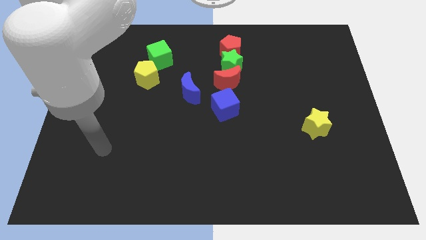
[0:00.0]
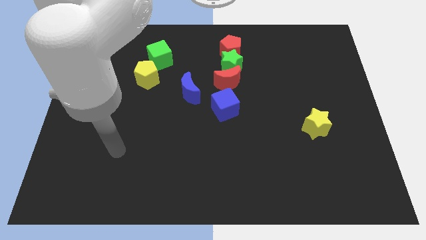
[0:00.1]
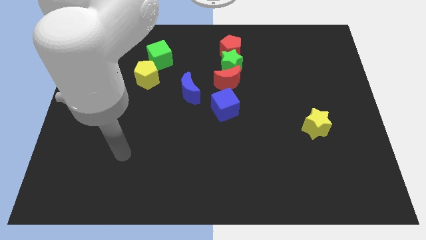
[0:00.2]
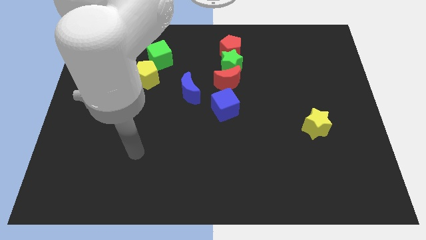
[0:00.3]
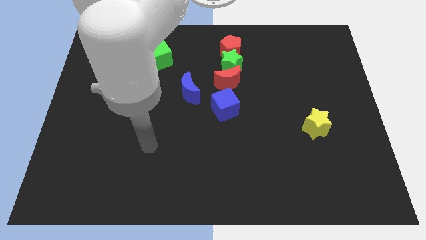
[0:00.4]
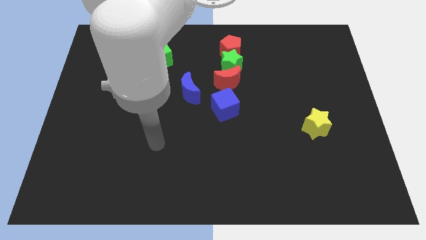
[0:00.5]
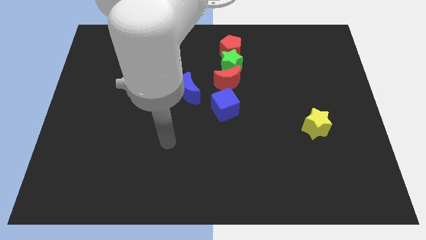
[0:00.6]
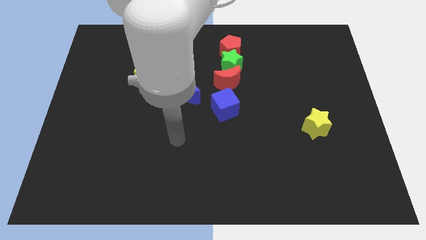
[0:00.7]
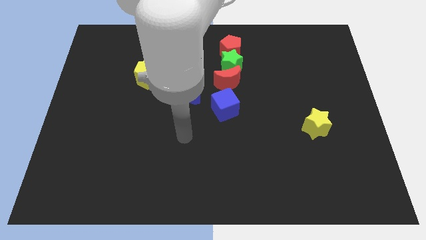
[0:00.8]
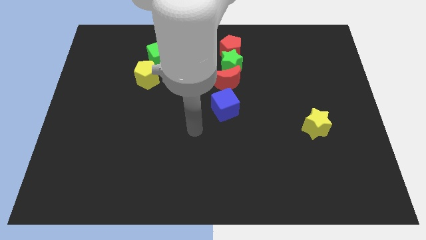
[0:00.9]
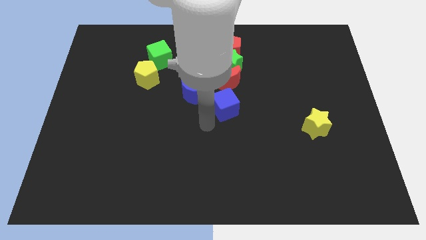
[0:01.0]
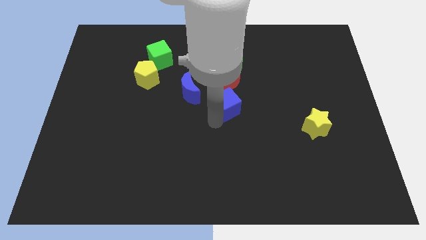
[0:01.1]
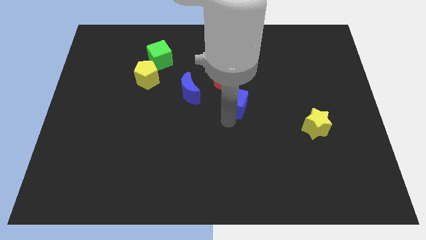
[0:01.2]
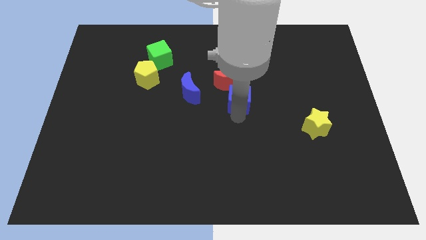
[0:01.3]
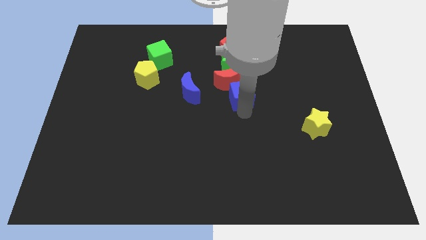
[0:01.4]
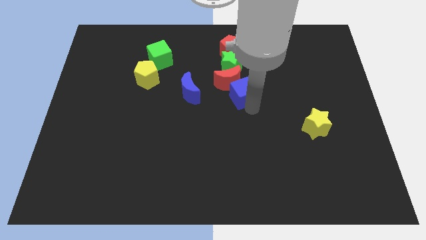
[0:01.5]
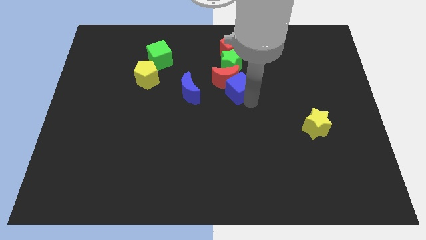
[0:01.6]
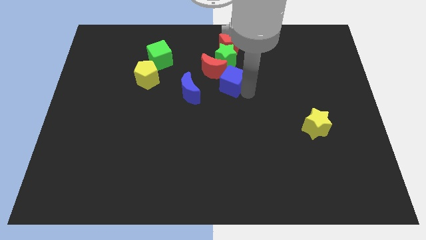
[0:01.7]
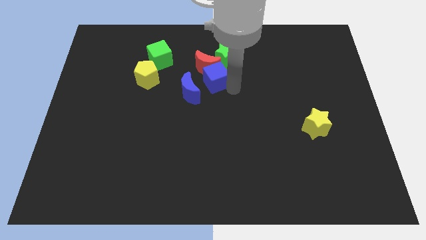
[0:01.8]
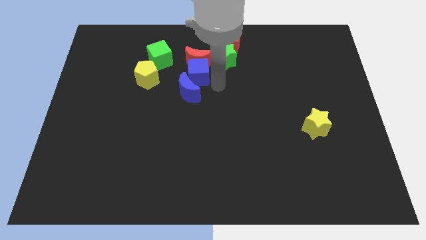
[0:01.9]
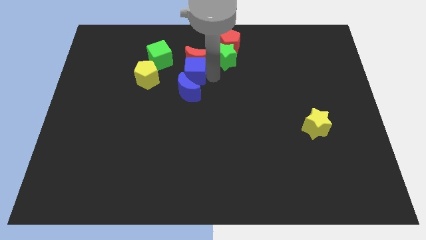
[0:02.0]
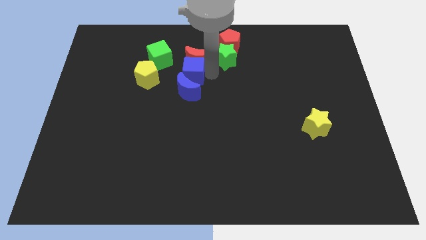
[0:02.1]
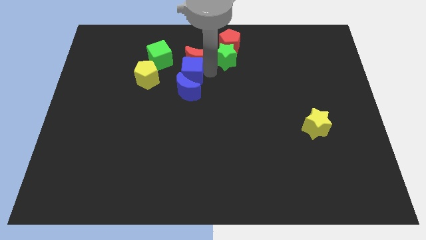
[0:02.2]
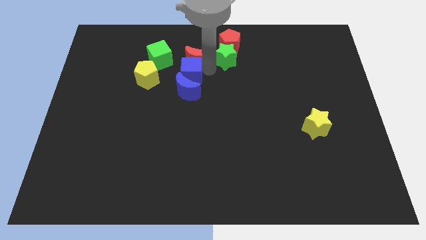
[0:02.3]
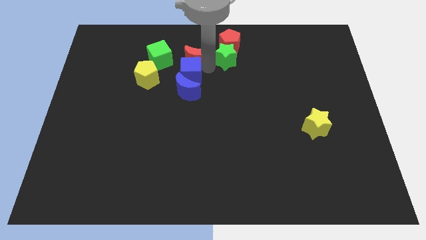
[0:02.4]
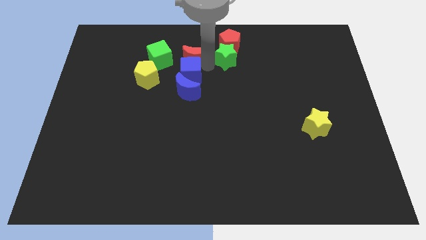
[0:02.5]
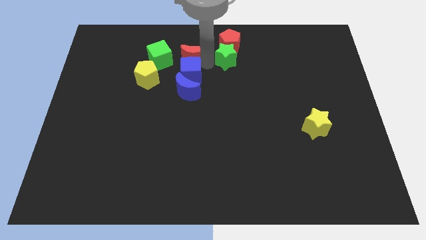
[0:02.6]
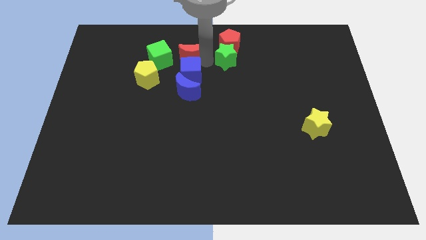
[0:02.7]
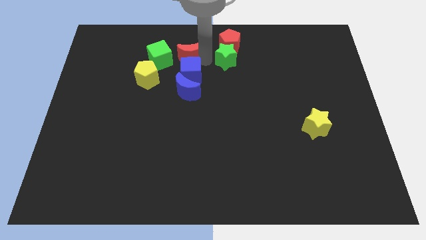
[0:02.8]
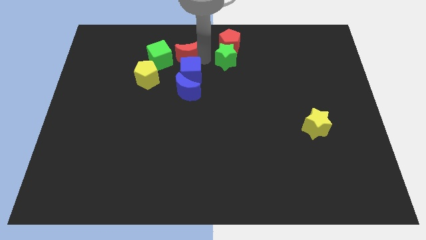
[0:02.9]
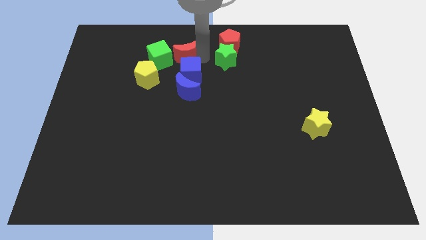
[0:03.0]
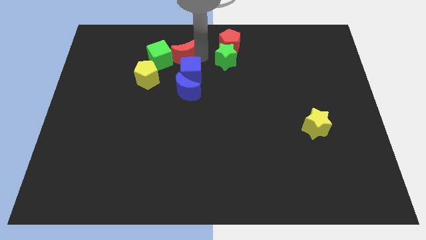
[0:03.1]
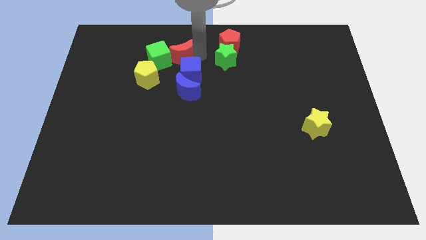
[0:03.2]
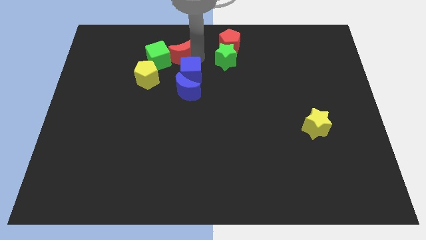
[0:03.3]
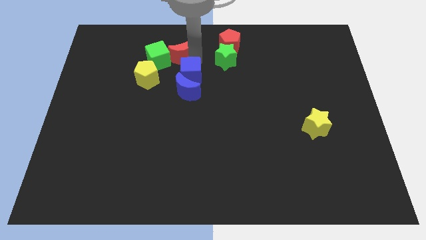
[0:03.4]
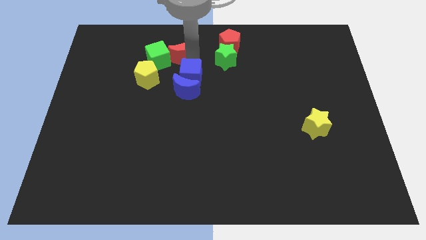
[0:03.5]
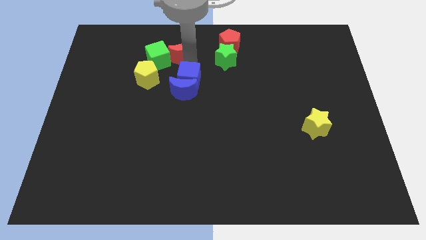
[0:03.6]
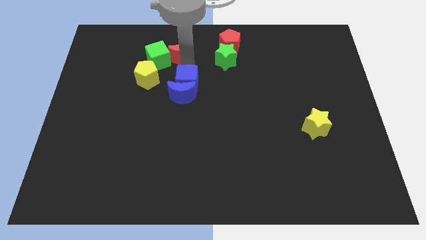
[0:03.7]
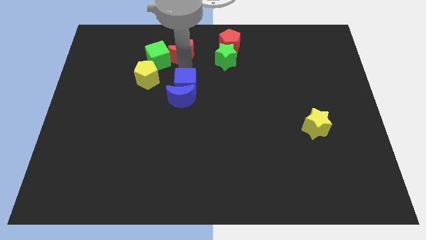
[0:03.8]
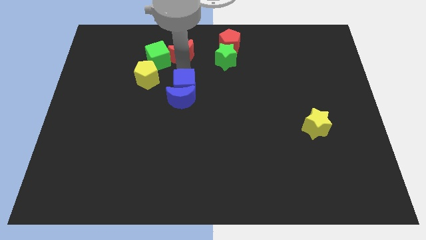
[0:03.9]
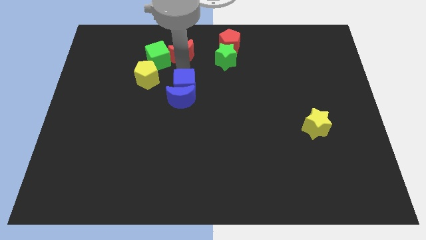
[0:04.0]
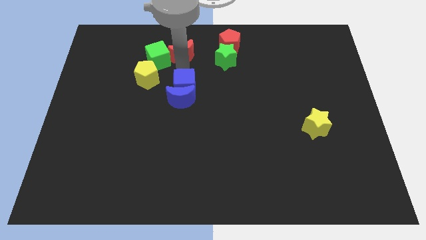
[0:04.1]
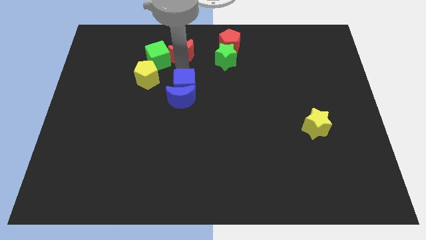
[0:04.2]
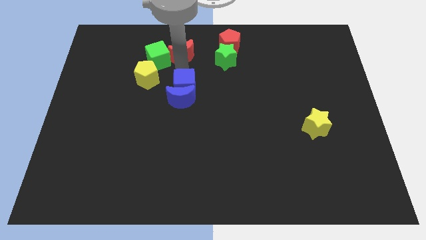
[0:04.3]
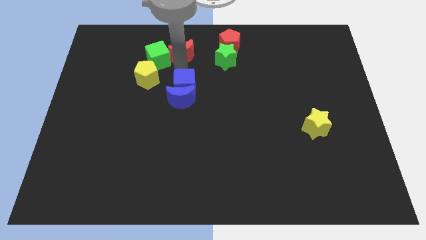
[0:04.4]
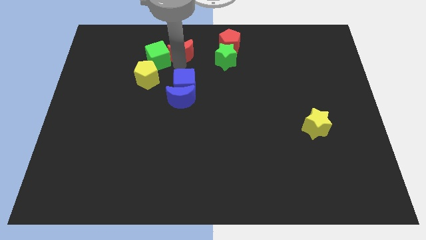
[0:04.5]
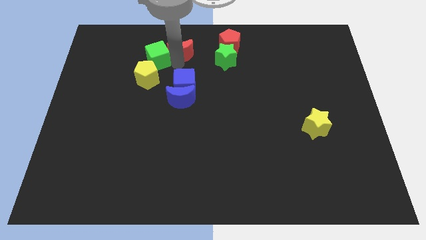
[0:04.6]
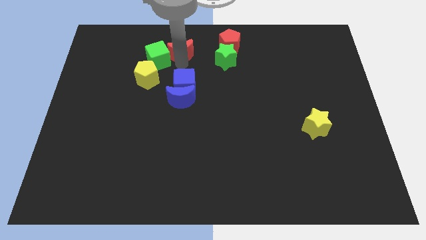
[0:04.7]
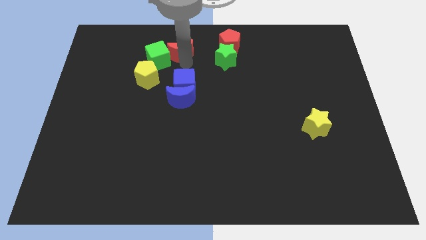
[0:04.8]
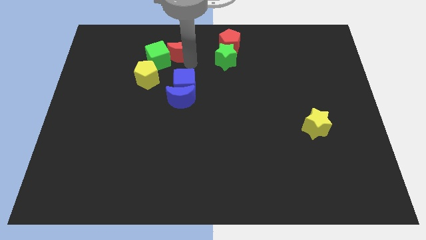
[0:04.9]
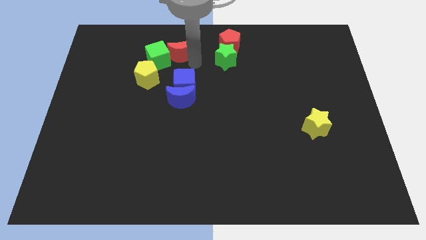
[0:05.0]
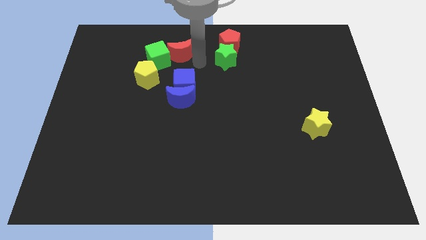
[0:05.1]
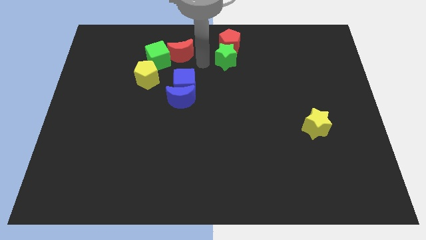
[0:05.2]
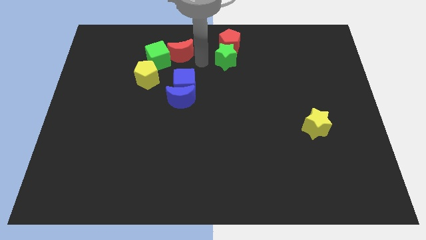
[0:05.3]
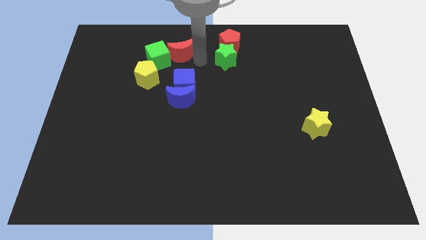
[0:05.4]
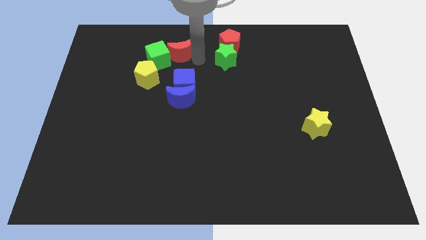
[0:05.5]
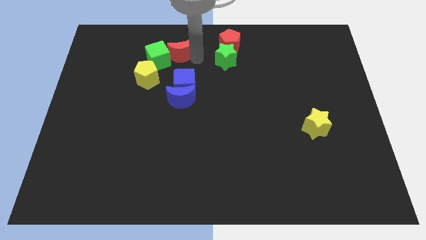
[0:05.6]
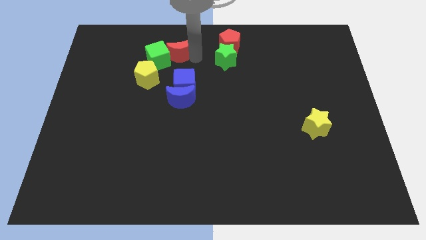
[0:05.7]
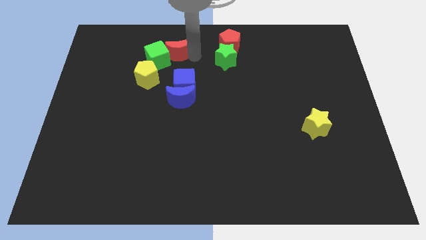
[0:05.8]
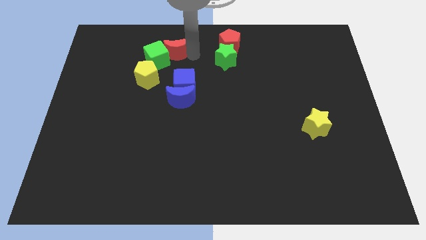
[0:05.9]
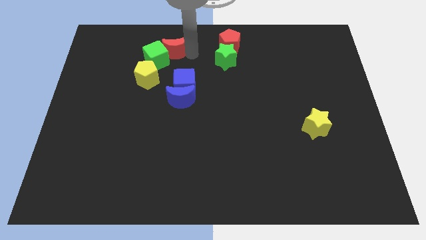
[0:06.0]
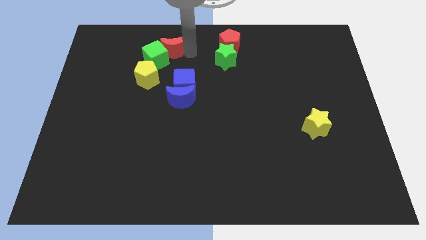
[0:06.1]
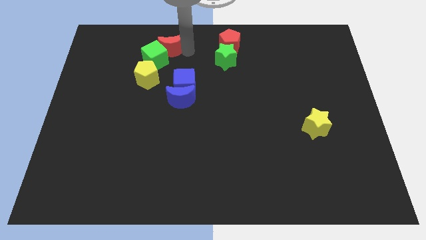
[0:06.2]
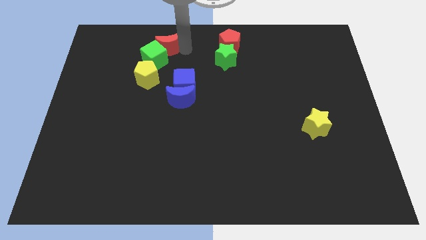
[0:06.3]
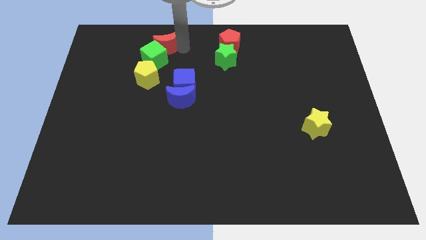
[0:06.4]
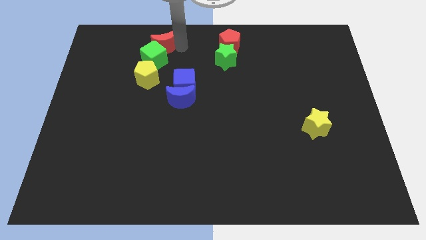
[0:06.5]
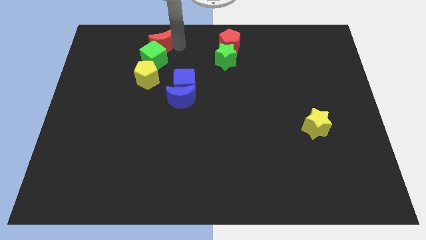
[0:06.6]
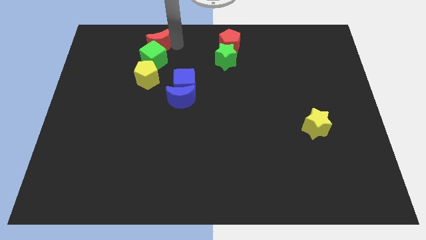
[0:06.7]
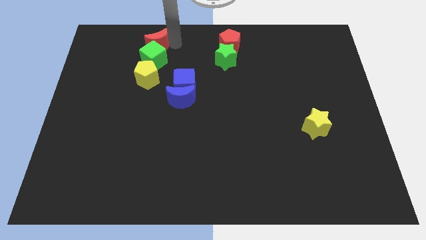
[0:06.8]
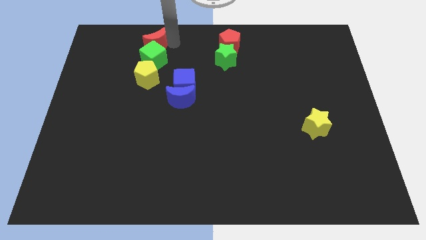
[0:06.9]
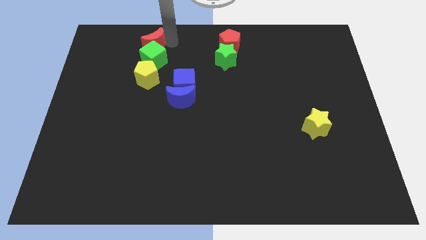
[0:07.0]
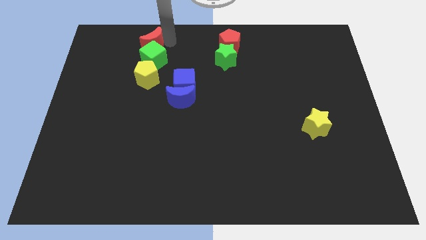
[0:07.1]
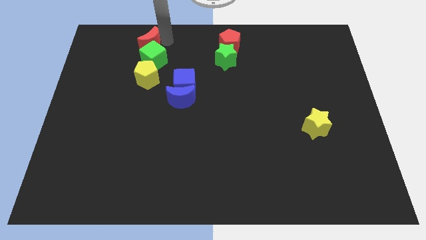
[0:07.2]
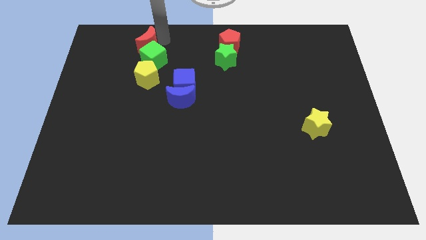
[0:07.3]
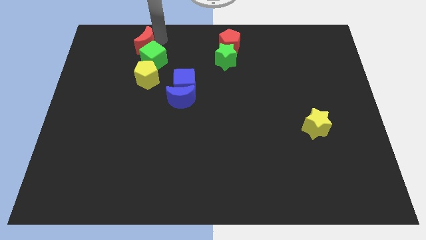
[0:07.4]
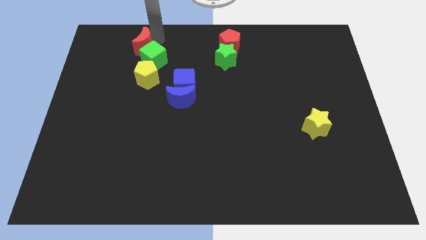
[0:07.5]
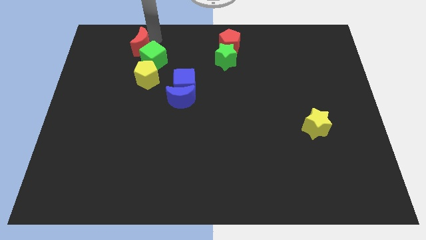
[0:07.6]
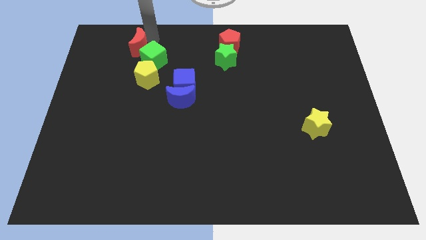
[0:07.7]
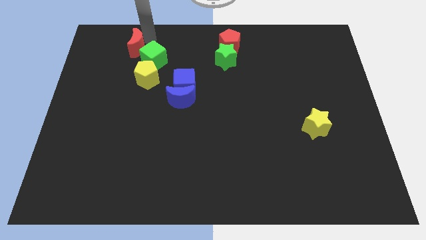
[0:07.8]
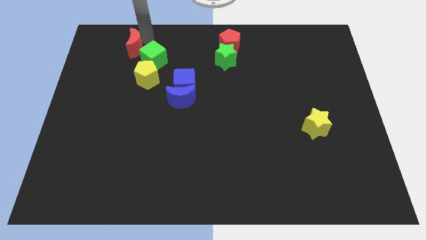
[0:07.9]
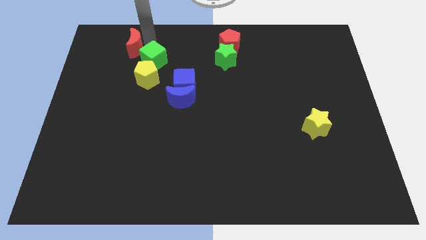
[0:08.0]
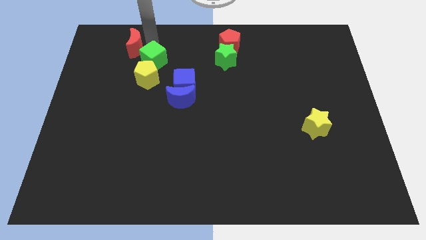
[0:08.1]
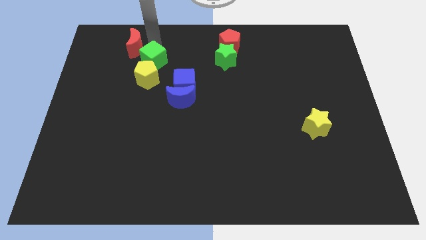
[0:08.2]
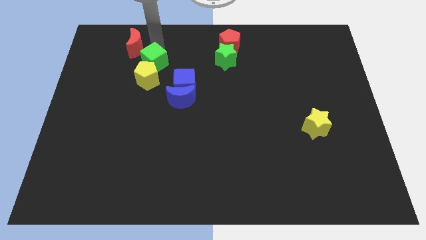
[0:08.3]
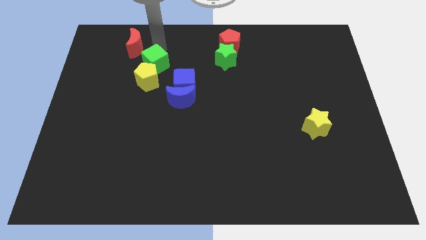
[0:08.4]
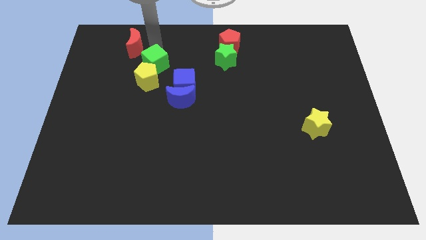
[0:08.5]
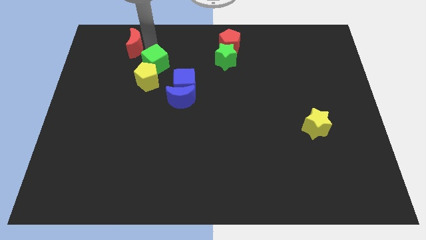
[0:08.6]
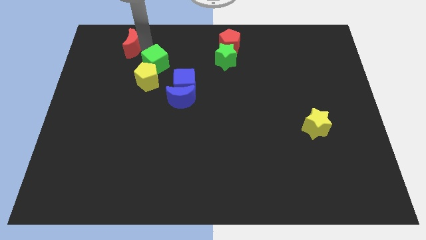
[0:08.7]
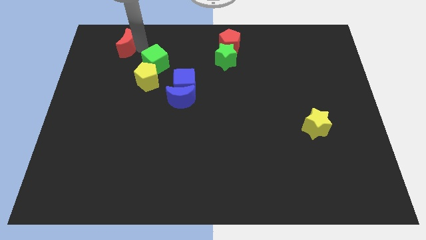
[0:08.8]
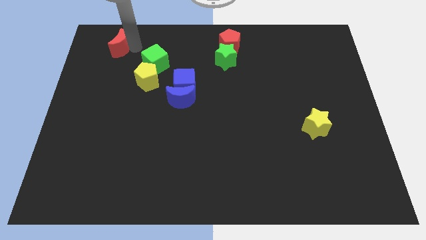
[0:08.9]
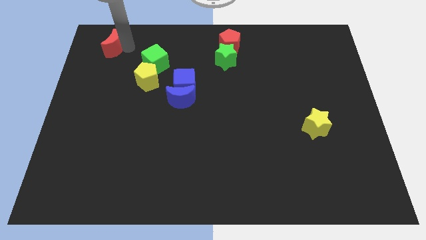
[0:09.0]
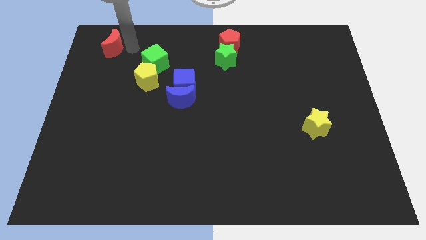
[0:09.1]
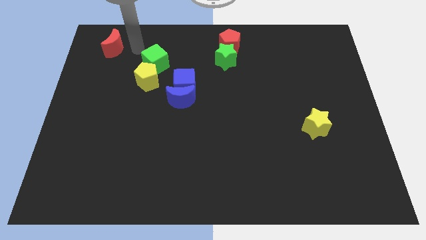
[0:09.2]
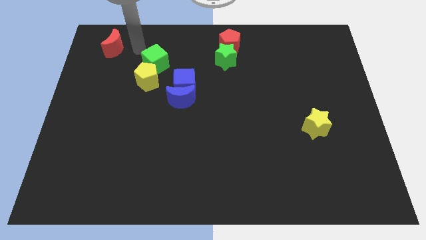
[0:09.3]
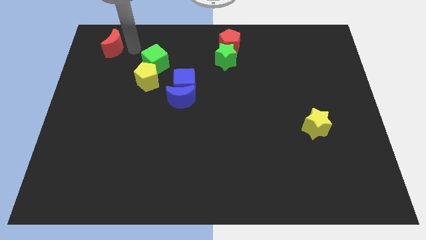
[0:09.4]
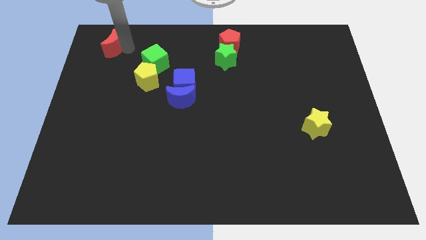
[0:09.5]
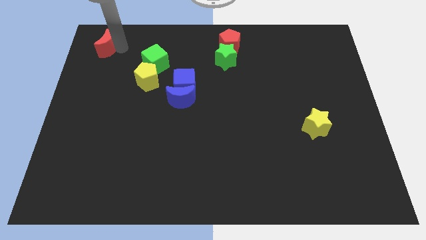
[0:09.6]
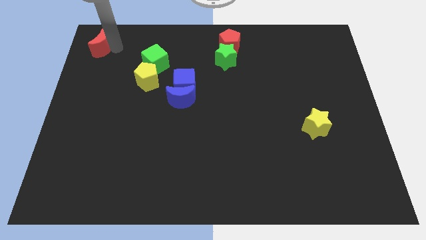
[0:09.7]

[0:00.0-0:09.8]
slide the red moon to the top left of the board
